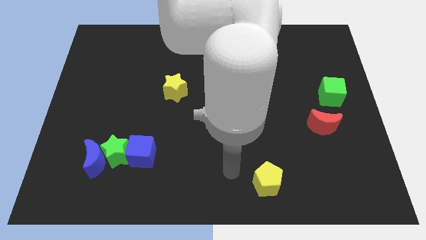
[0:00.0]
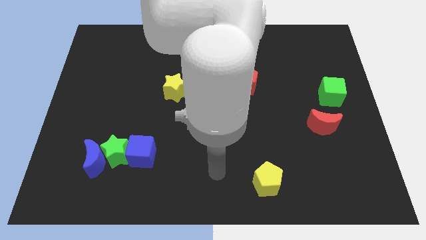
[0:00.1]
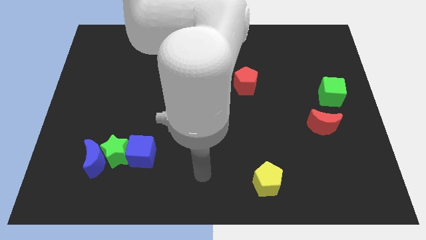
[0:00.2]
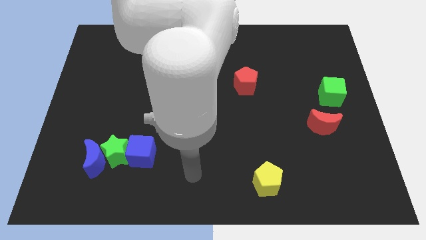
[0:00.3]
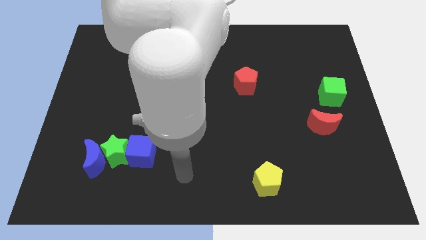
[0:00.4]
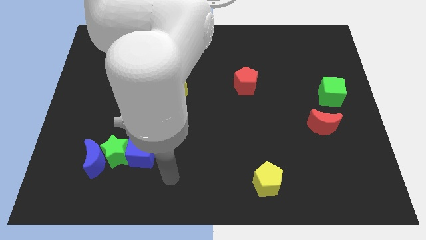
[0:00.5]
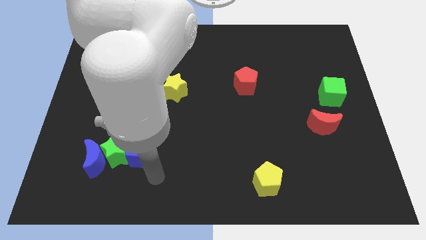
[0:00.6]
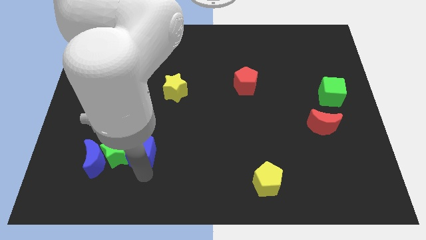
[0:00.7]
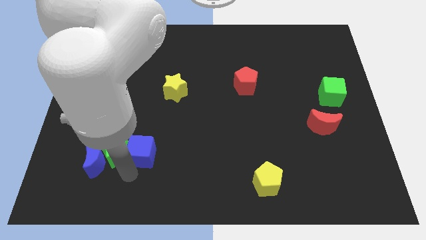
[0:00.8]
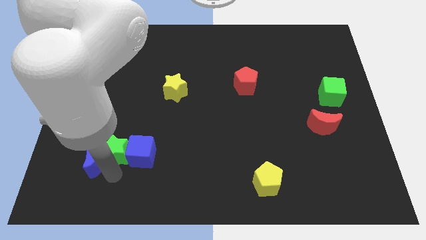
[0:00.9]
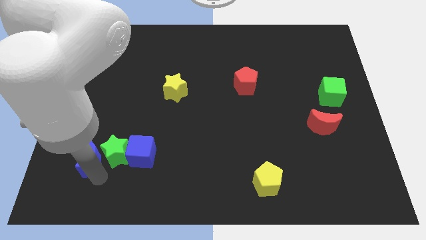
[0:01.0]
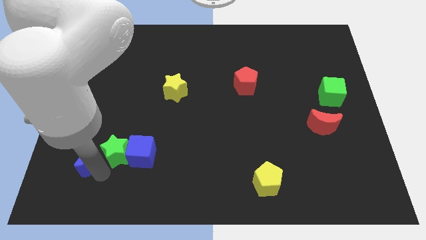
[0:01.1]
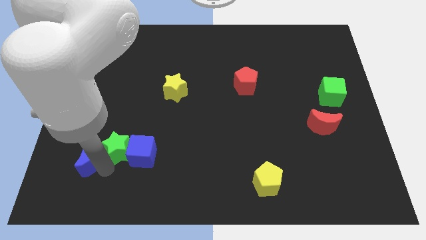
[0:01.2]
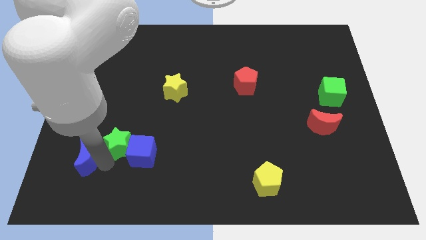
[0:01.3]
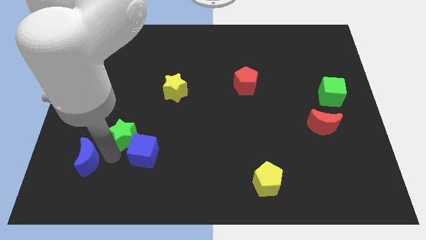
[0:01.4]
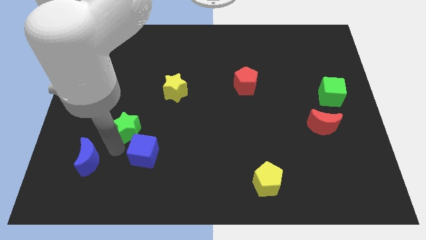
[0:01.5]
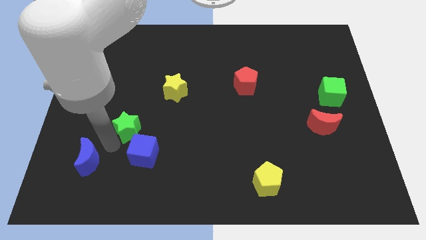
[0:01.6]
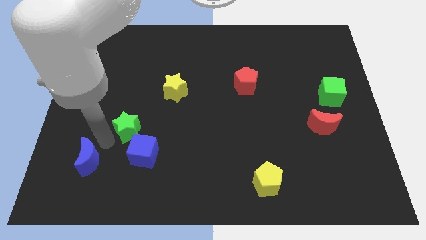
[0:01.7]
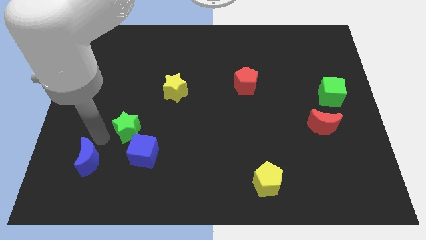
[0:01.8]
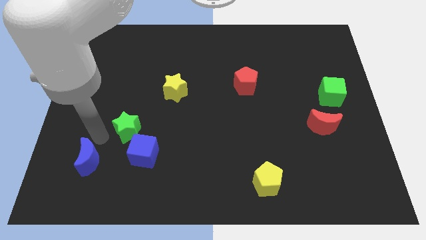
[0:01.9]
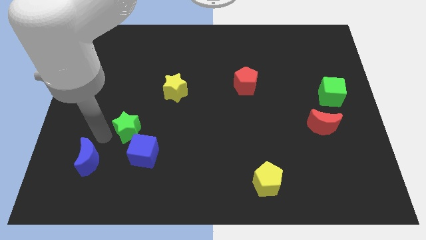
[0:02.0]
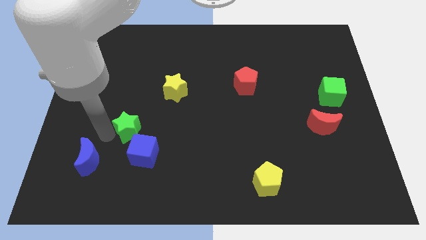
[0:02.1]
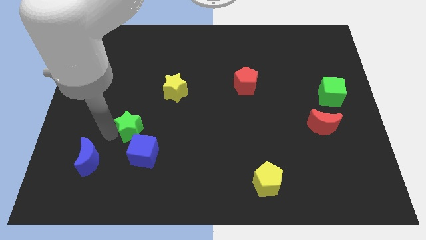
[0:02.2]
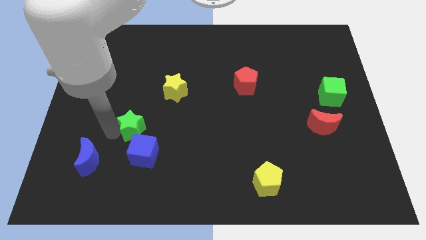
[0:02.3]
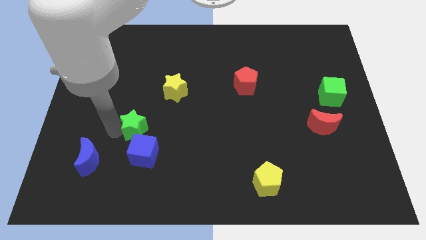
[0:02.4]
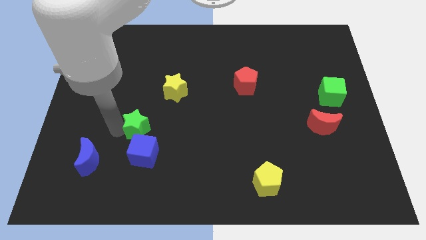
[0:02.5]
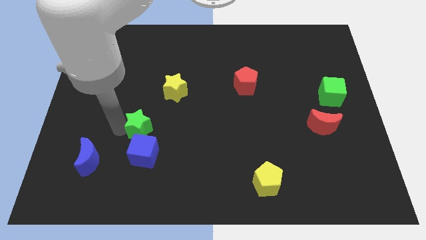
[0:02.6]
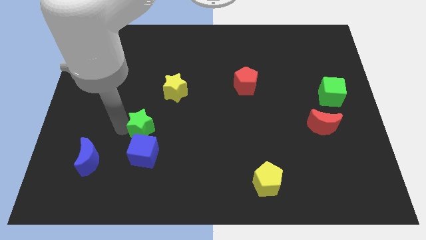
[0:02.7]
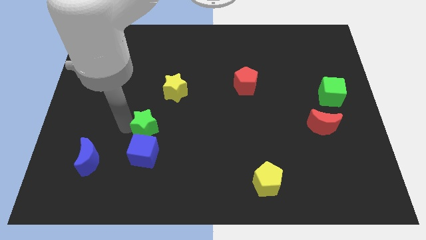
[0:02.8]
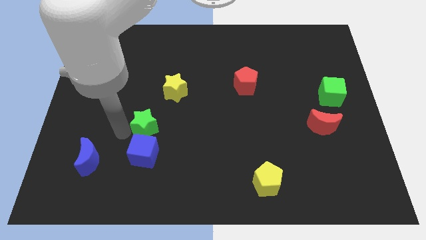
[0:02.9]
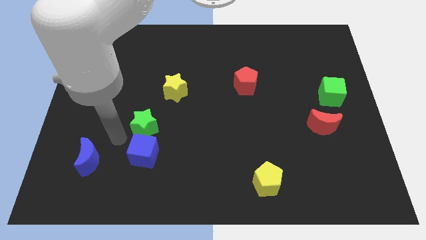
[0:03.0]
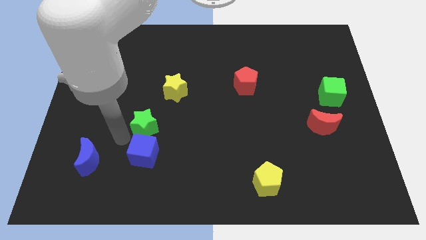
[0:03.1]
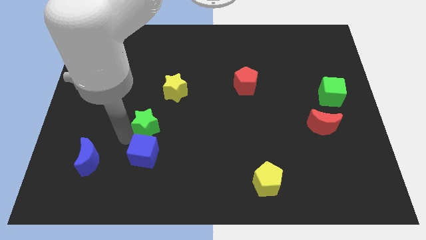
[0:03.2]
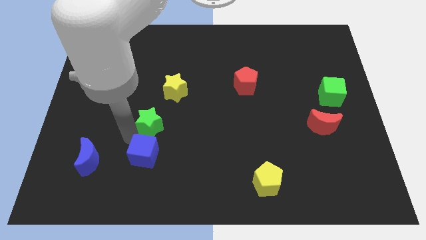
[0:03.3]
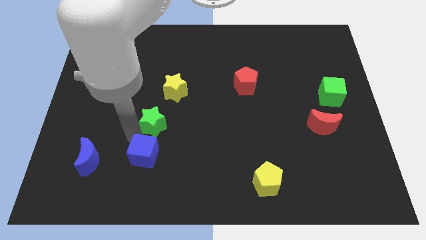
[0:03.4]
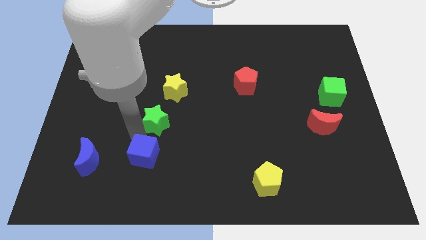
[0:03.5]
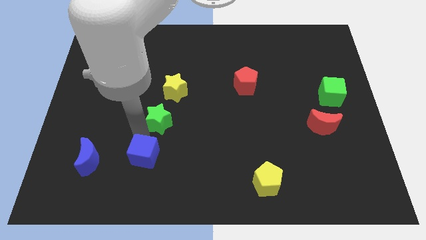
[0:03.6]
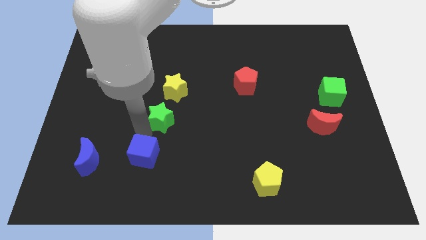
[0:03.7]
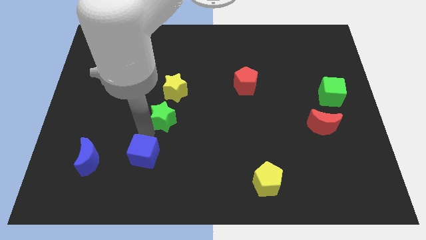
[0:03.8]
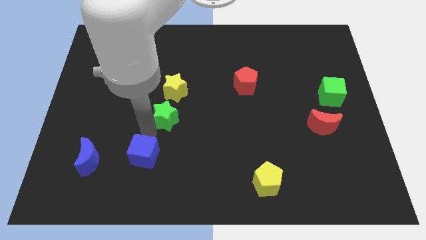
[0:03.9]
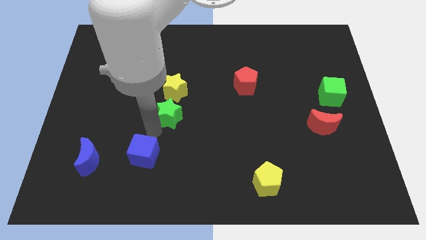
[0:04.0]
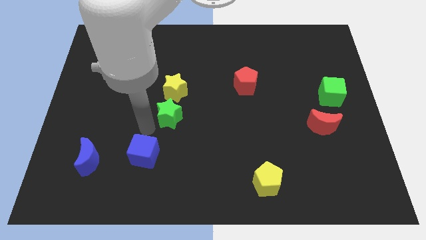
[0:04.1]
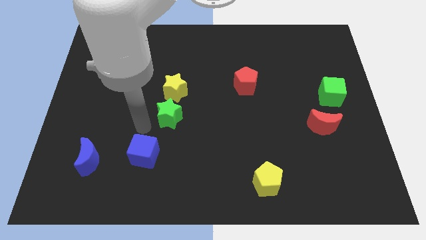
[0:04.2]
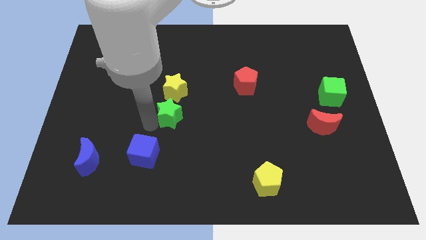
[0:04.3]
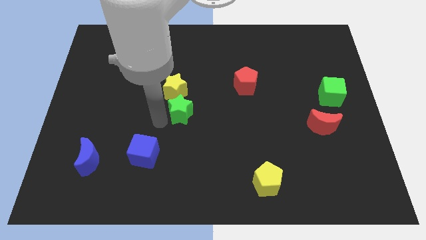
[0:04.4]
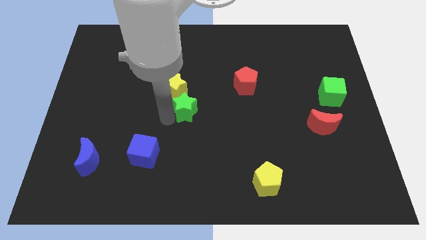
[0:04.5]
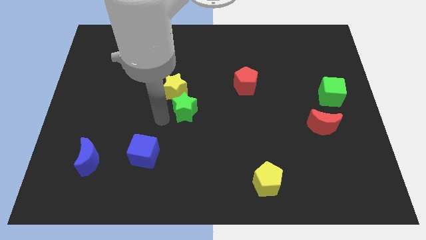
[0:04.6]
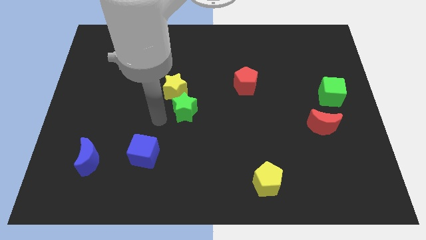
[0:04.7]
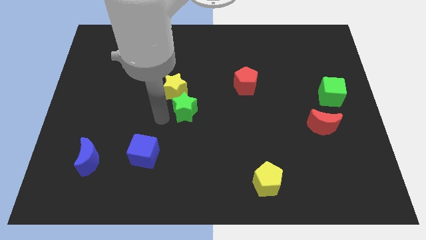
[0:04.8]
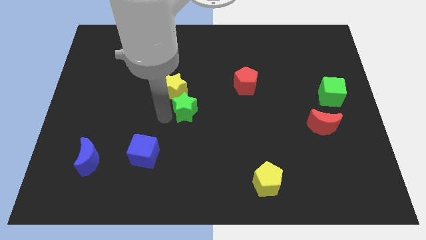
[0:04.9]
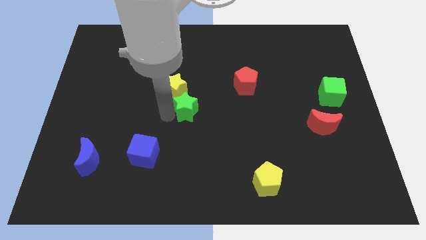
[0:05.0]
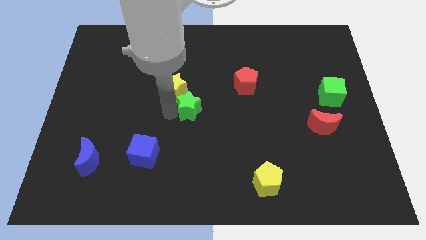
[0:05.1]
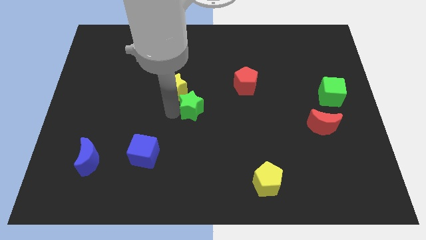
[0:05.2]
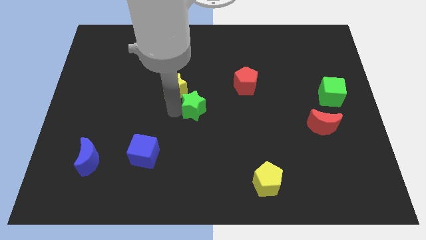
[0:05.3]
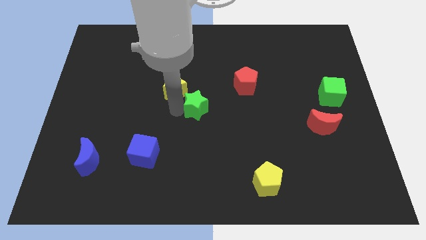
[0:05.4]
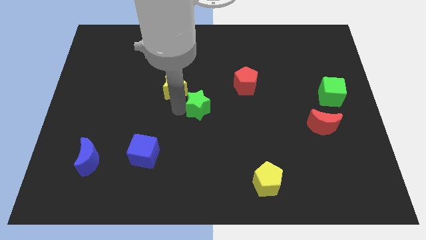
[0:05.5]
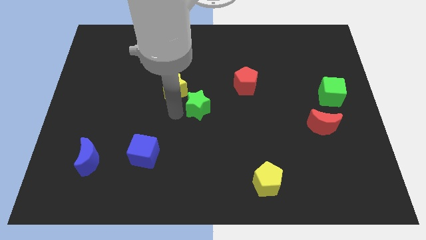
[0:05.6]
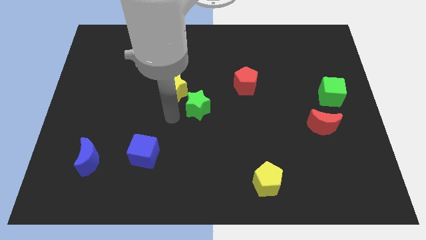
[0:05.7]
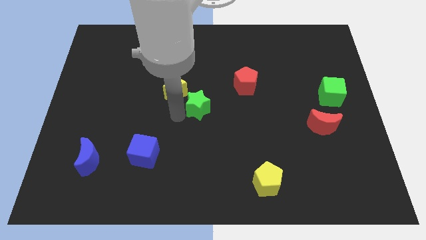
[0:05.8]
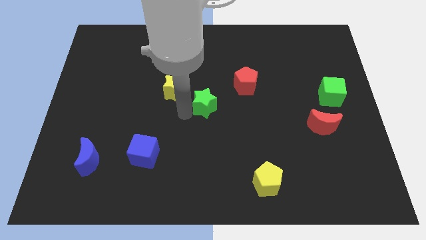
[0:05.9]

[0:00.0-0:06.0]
put the green star to the bottom left side of the red pentagon

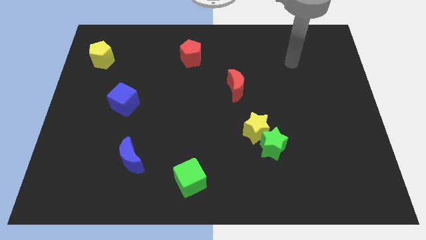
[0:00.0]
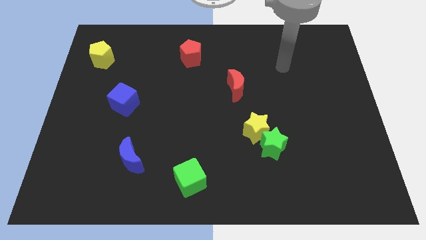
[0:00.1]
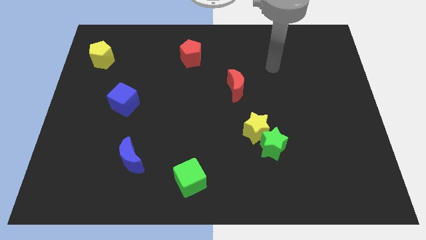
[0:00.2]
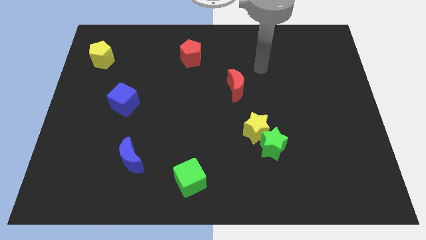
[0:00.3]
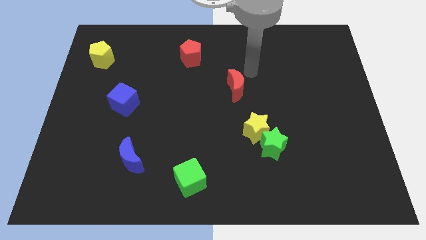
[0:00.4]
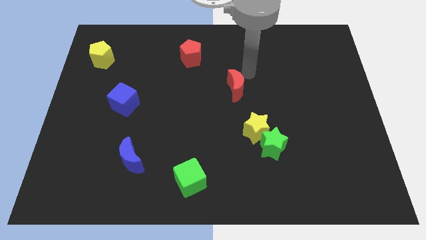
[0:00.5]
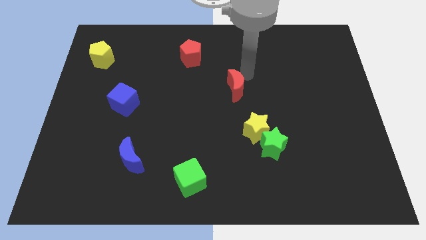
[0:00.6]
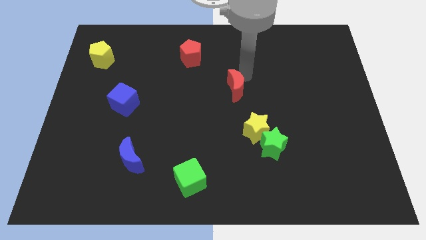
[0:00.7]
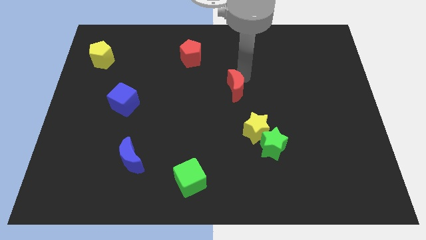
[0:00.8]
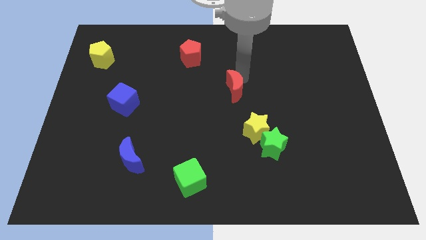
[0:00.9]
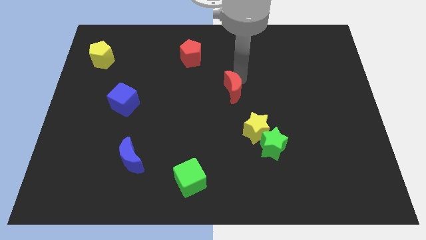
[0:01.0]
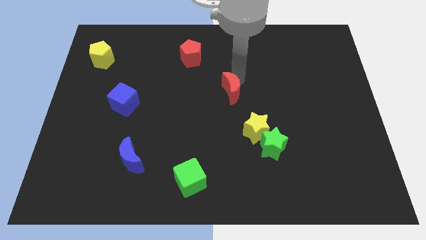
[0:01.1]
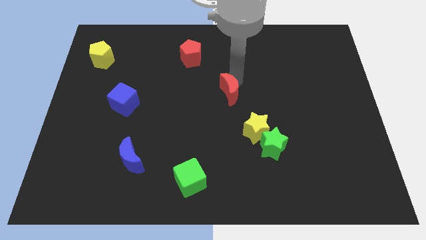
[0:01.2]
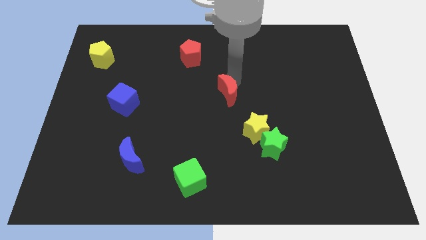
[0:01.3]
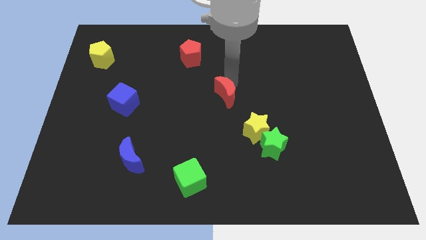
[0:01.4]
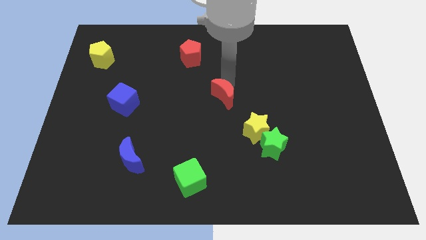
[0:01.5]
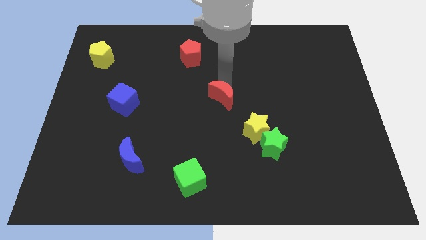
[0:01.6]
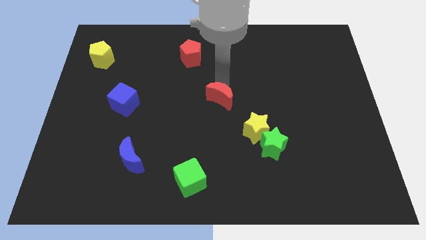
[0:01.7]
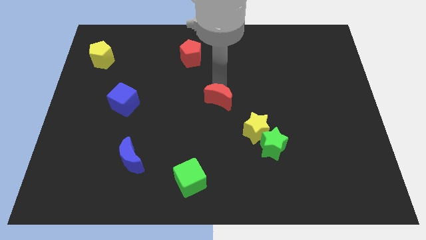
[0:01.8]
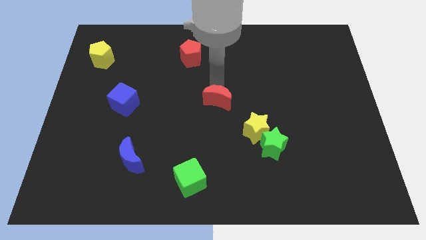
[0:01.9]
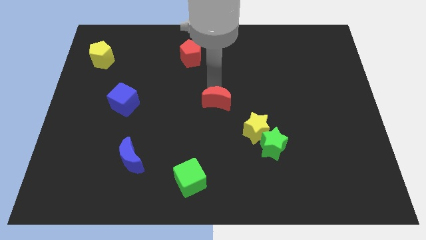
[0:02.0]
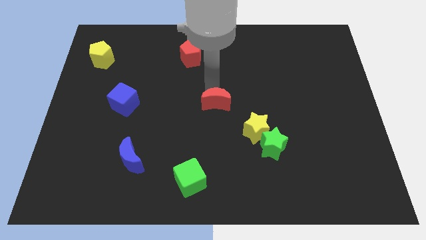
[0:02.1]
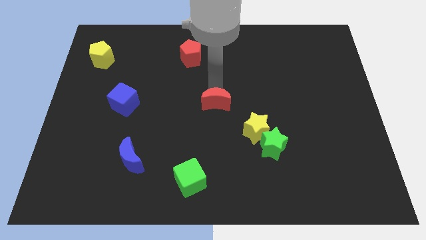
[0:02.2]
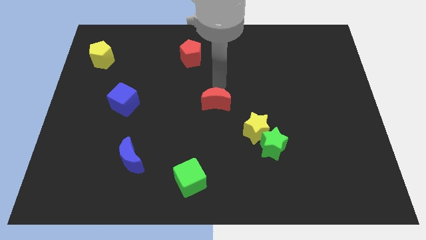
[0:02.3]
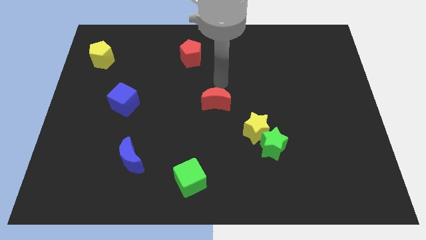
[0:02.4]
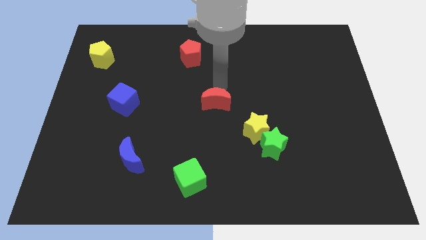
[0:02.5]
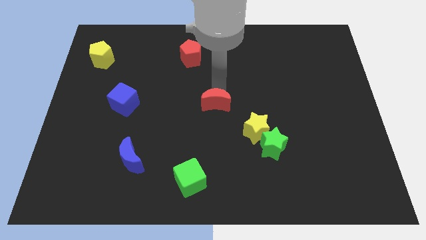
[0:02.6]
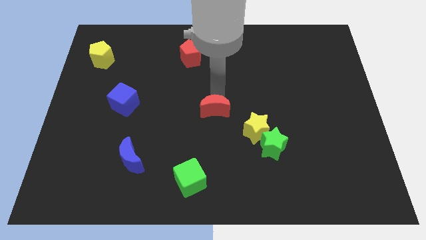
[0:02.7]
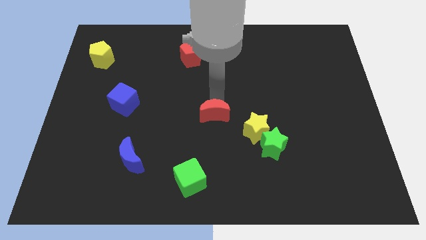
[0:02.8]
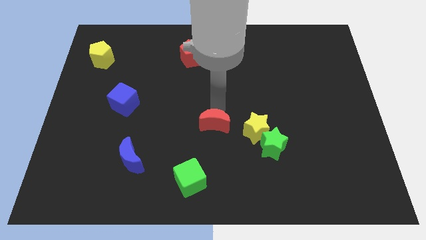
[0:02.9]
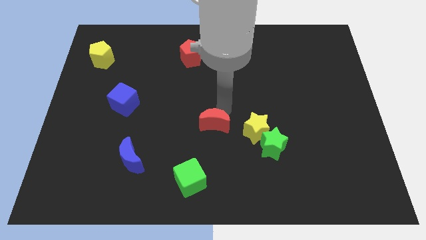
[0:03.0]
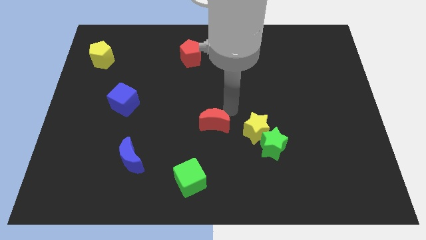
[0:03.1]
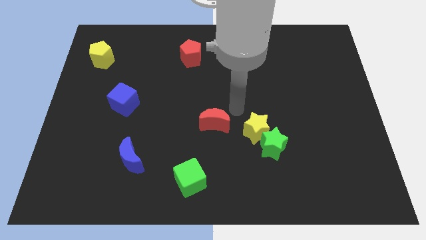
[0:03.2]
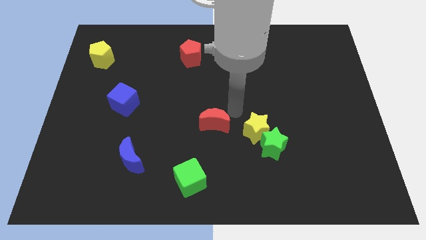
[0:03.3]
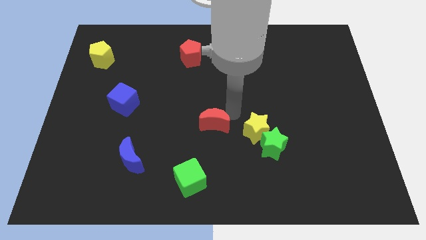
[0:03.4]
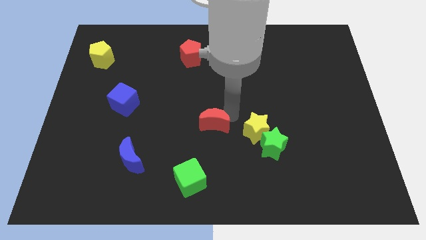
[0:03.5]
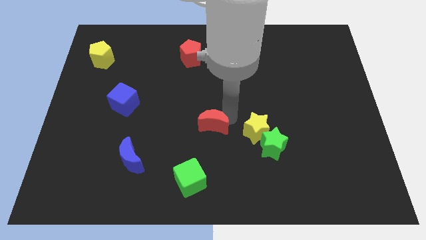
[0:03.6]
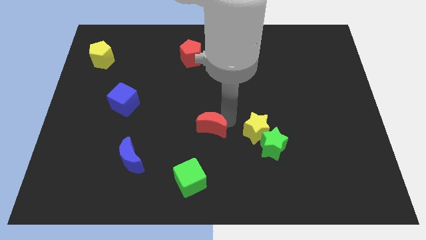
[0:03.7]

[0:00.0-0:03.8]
put the red moon above the green cube
